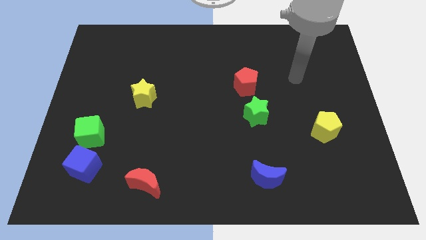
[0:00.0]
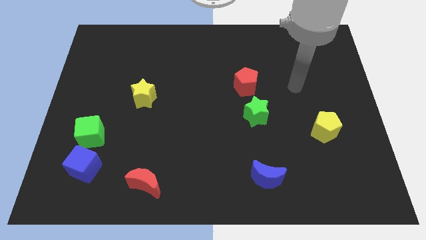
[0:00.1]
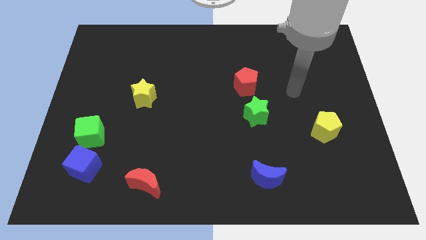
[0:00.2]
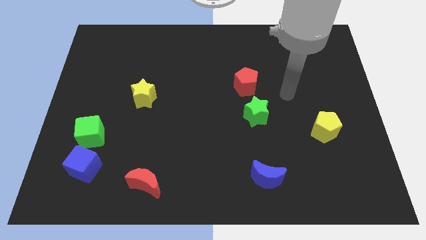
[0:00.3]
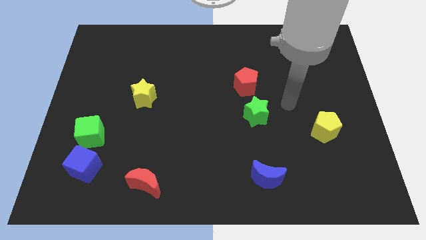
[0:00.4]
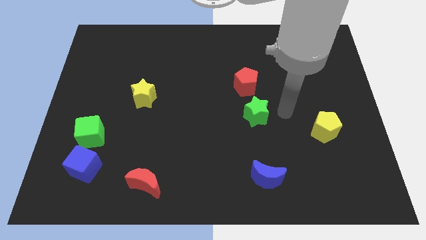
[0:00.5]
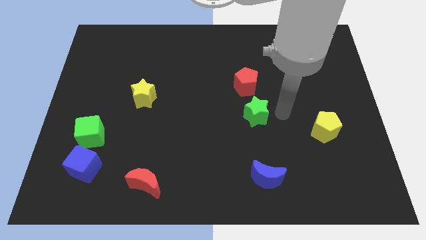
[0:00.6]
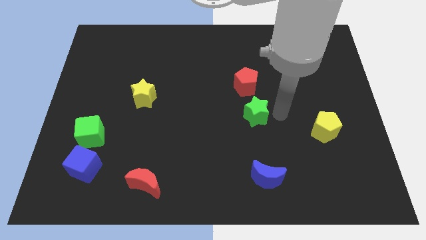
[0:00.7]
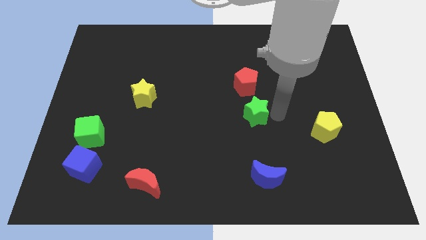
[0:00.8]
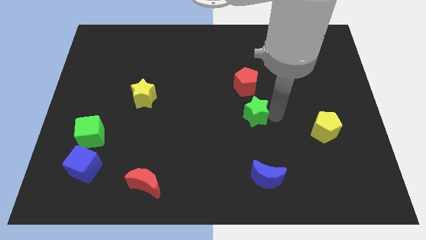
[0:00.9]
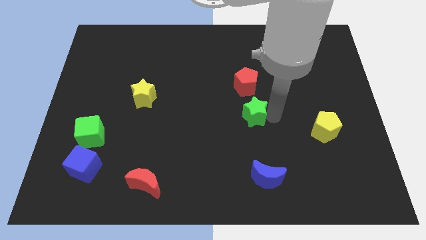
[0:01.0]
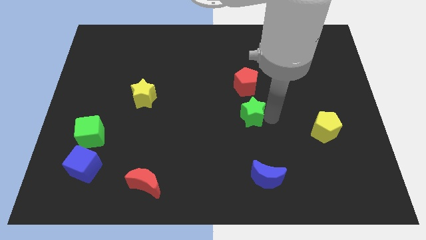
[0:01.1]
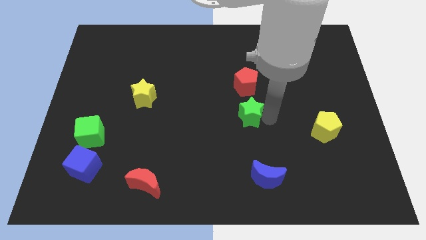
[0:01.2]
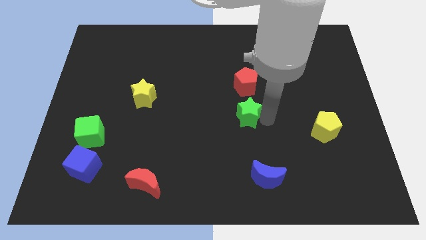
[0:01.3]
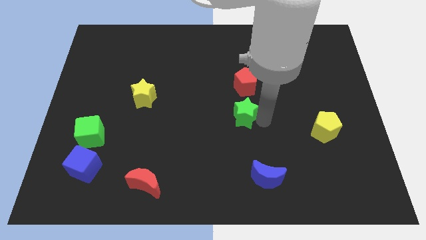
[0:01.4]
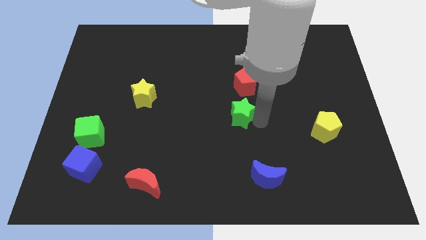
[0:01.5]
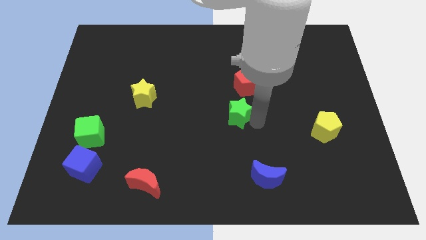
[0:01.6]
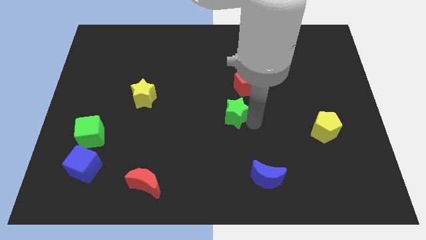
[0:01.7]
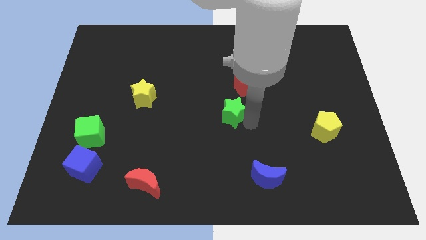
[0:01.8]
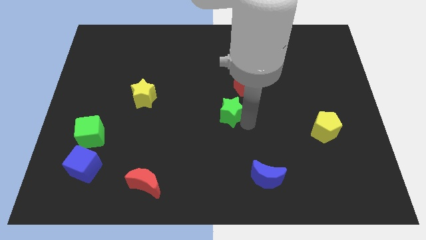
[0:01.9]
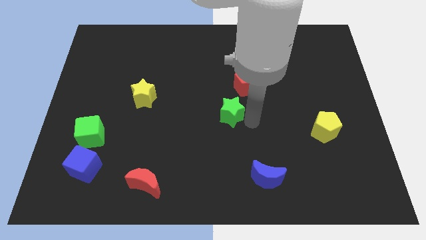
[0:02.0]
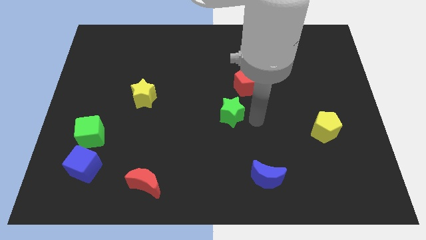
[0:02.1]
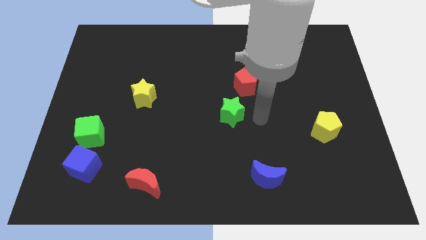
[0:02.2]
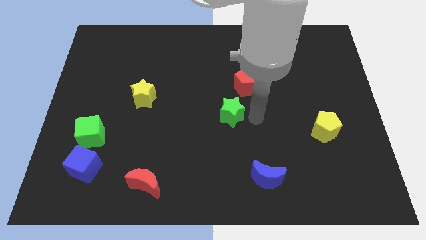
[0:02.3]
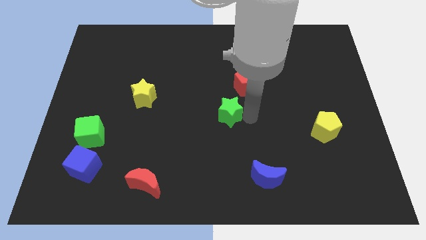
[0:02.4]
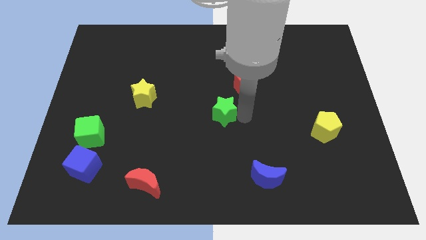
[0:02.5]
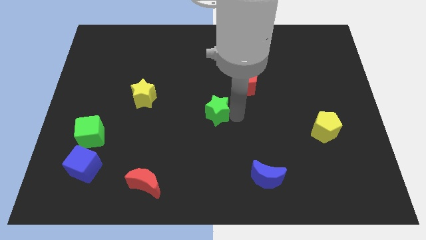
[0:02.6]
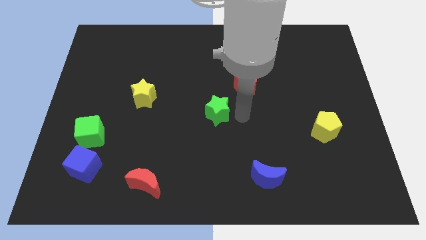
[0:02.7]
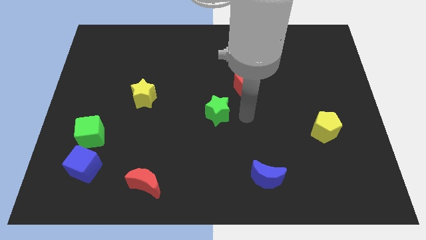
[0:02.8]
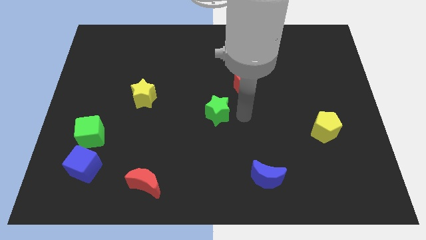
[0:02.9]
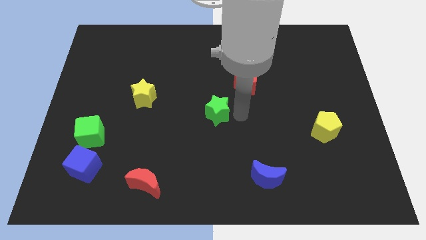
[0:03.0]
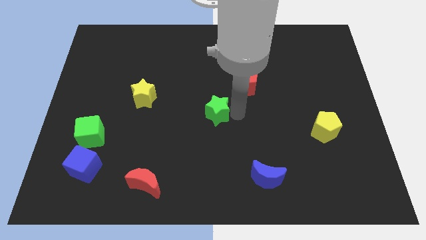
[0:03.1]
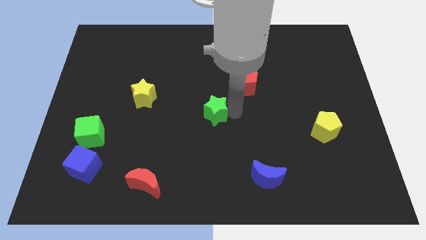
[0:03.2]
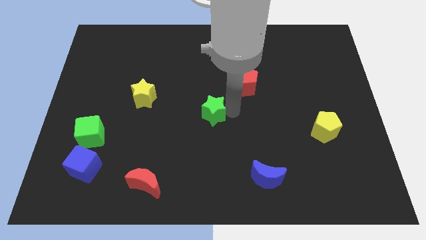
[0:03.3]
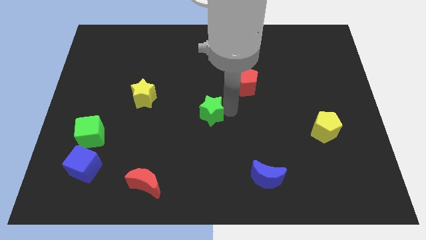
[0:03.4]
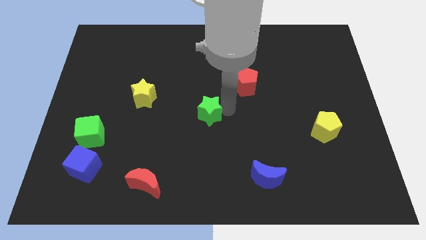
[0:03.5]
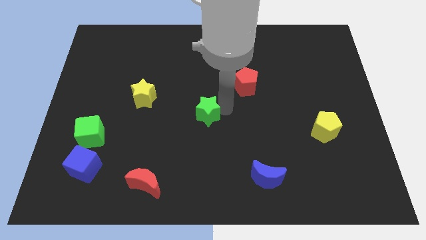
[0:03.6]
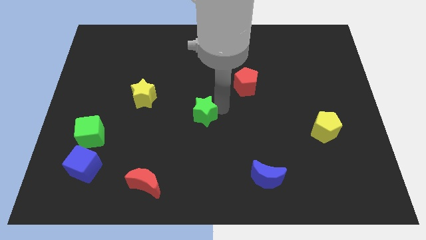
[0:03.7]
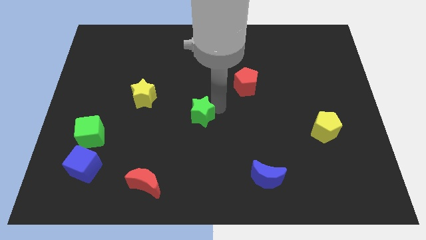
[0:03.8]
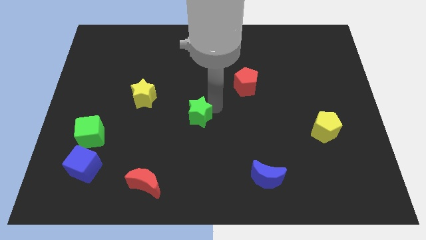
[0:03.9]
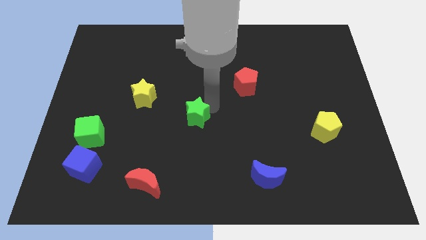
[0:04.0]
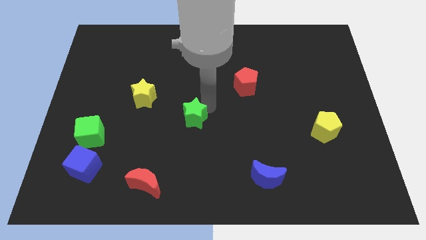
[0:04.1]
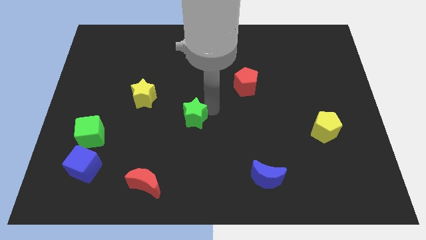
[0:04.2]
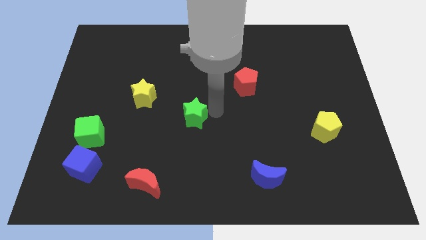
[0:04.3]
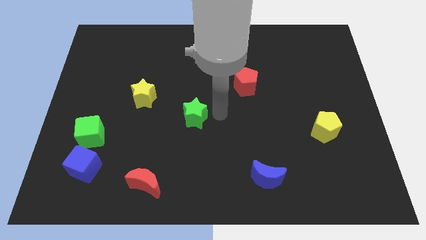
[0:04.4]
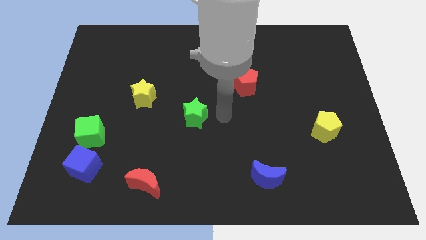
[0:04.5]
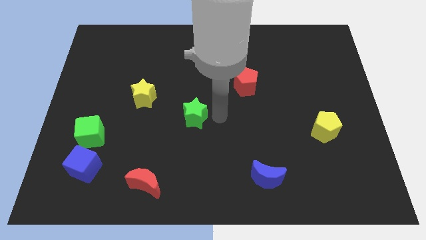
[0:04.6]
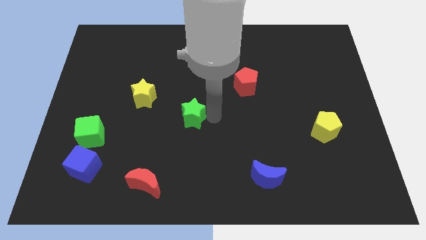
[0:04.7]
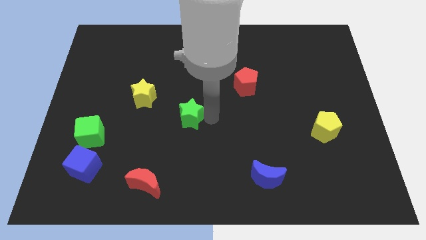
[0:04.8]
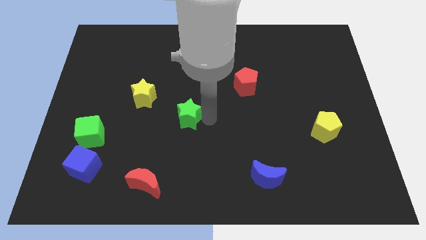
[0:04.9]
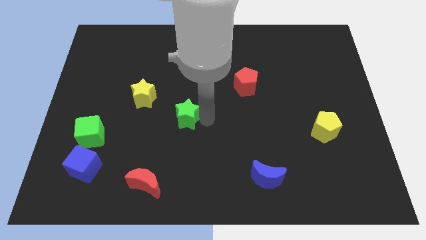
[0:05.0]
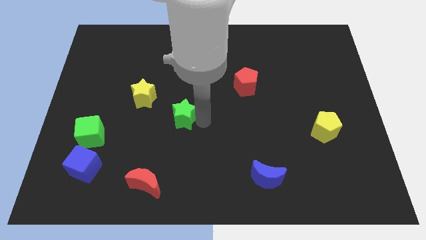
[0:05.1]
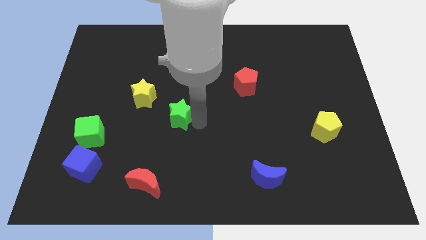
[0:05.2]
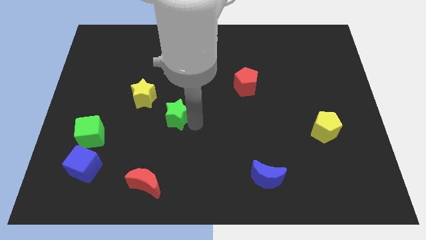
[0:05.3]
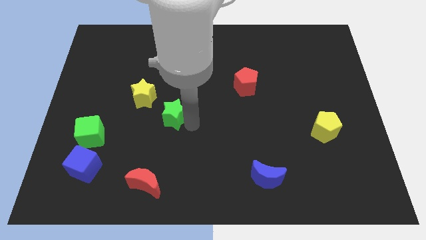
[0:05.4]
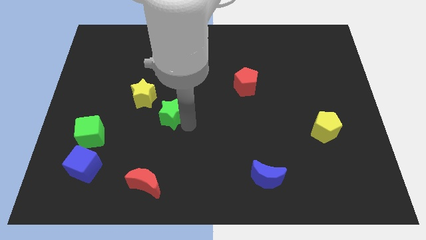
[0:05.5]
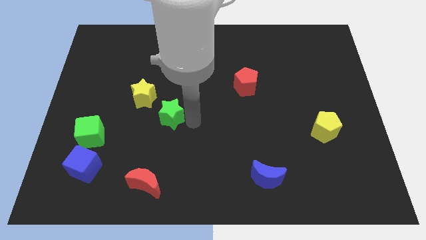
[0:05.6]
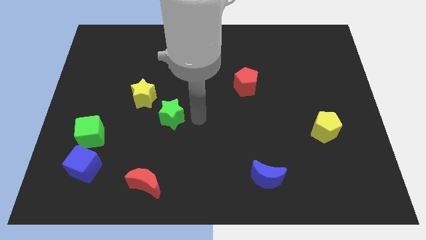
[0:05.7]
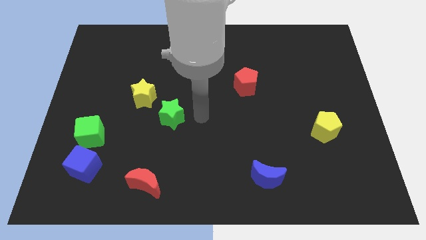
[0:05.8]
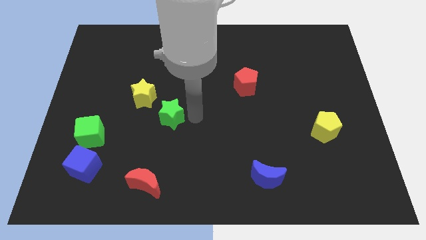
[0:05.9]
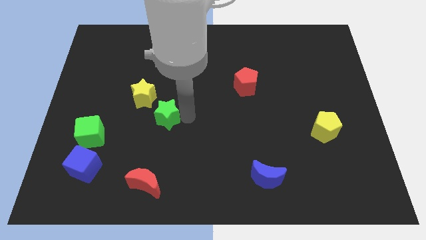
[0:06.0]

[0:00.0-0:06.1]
move the green star to the left

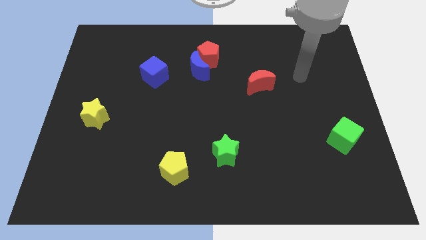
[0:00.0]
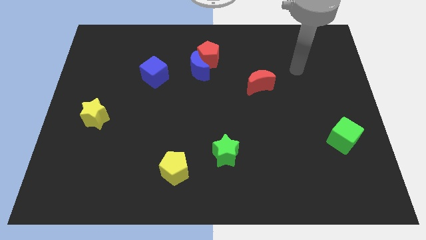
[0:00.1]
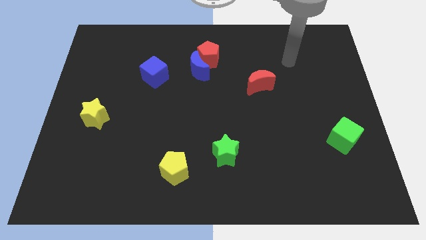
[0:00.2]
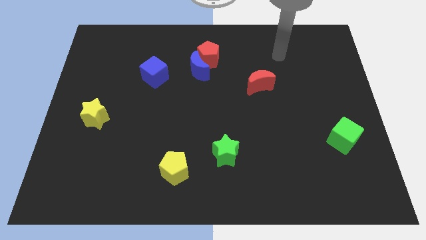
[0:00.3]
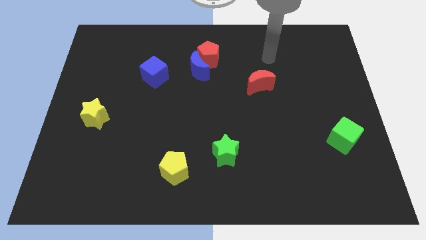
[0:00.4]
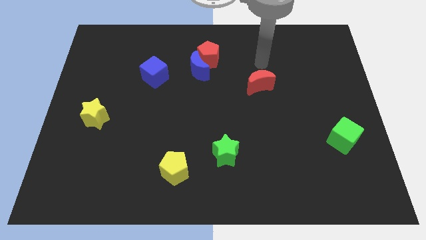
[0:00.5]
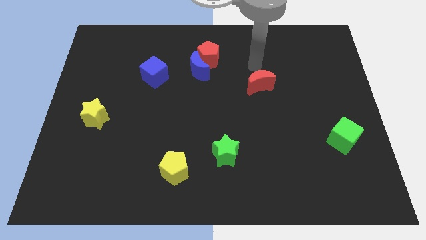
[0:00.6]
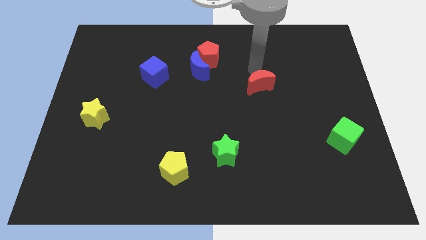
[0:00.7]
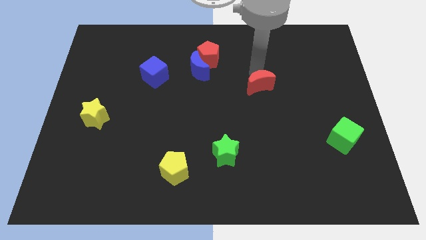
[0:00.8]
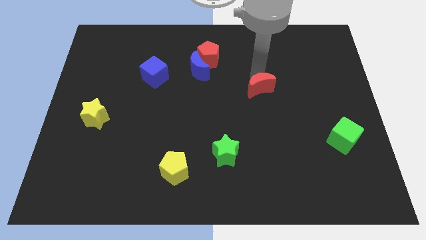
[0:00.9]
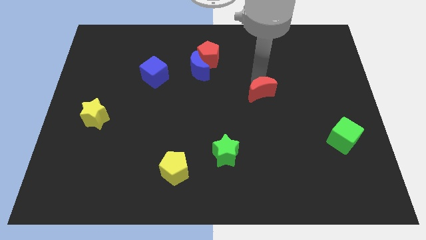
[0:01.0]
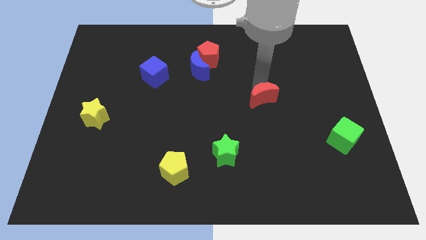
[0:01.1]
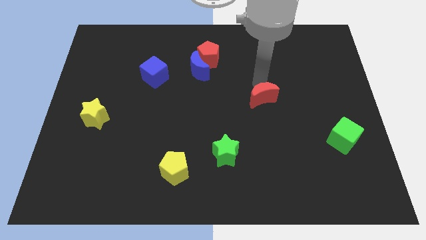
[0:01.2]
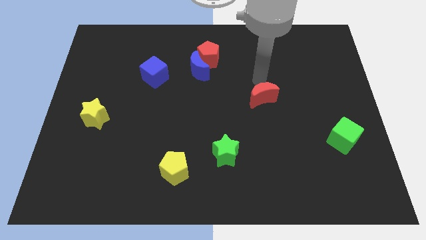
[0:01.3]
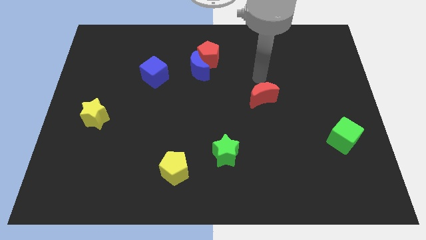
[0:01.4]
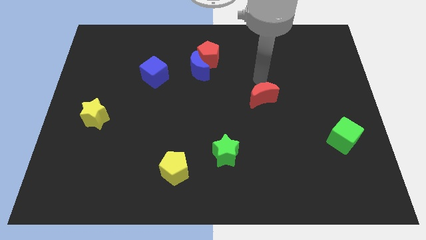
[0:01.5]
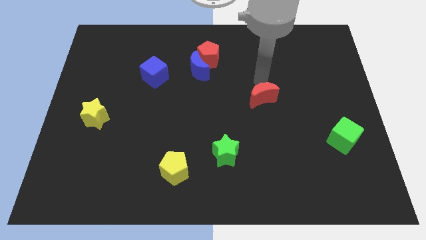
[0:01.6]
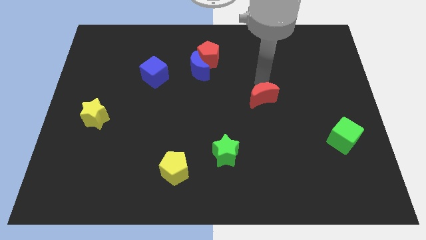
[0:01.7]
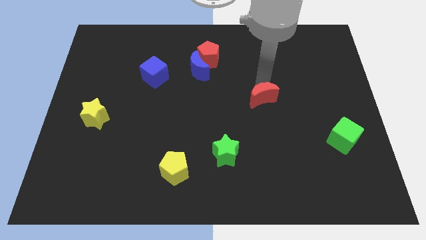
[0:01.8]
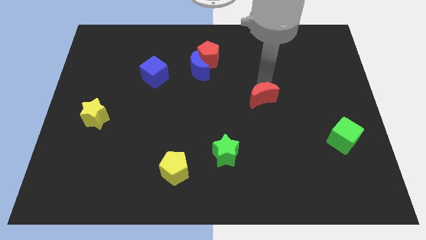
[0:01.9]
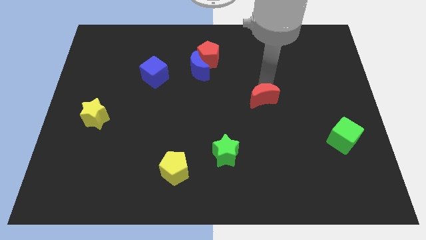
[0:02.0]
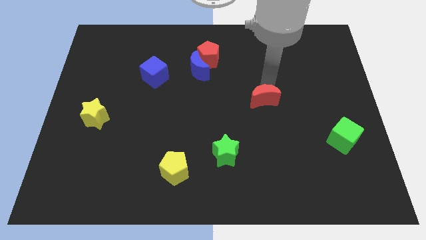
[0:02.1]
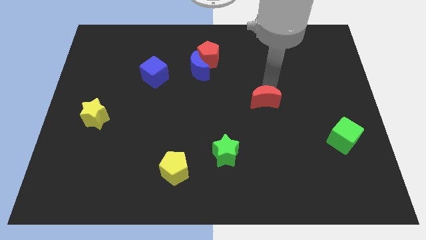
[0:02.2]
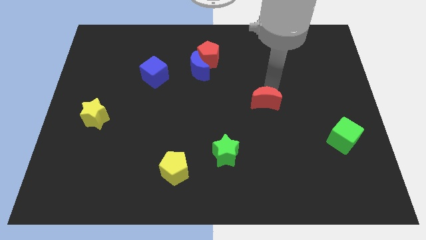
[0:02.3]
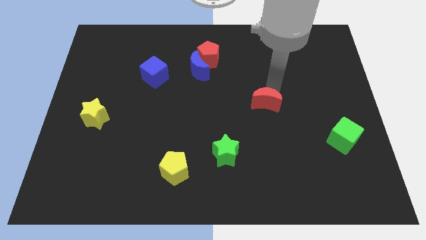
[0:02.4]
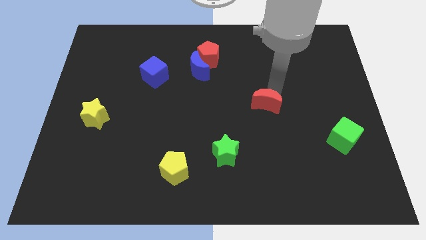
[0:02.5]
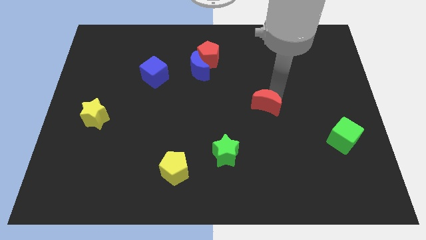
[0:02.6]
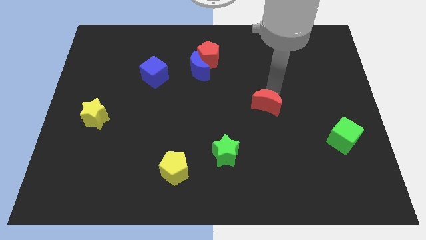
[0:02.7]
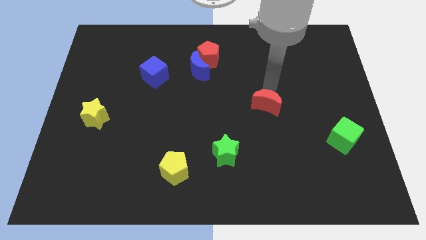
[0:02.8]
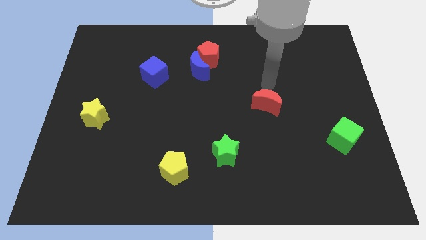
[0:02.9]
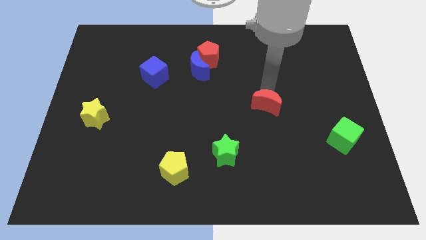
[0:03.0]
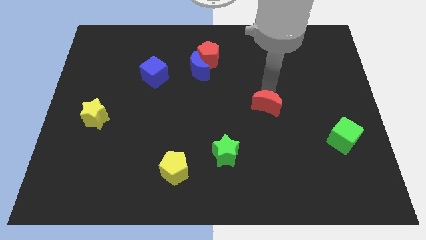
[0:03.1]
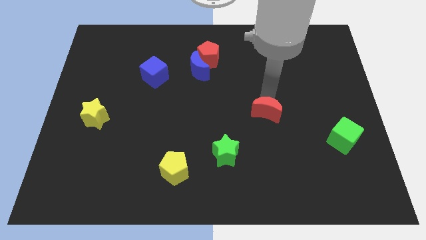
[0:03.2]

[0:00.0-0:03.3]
move the red moon a little bit downwards
